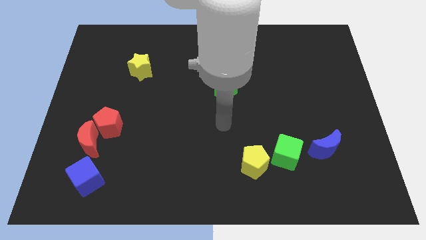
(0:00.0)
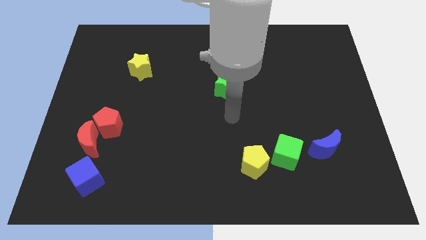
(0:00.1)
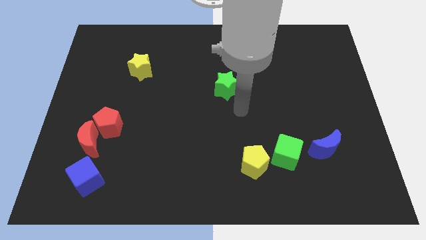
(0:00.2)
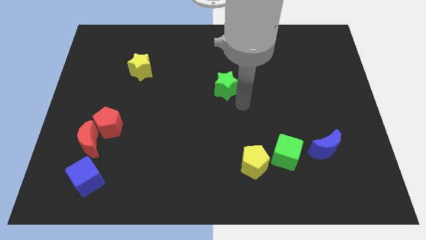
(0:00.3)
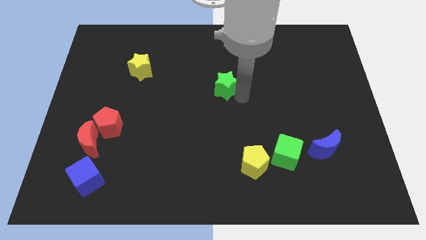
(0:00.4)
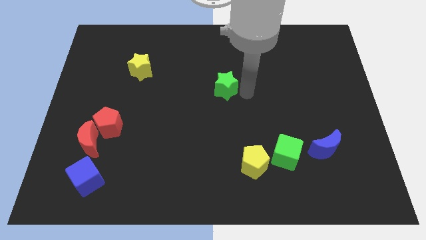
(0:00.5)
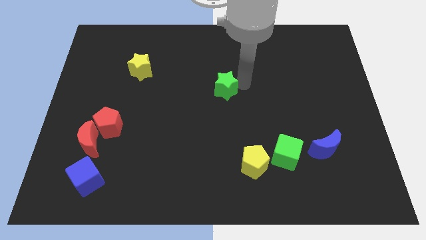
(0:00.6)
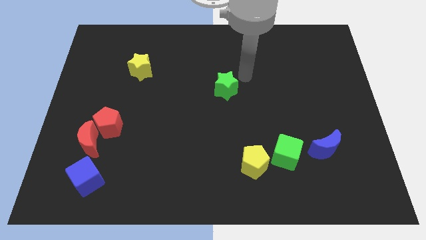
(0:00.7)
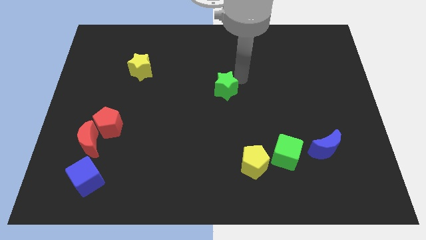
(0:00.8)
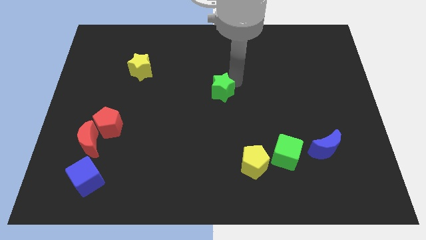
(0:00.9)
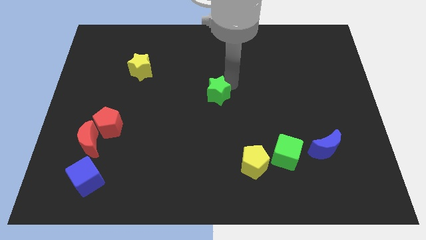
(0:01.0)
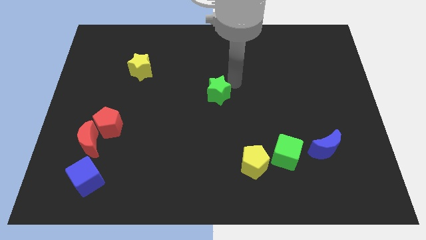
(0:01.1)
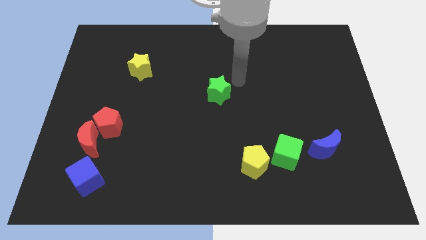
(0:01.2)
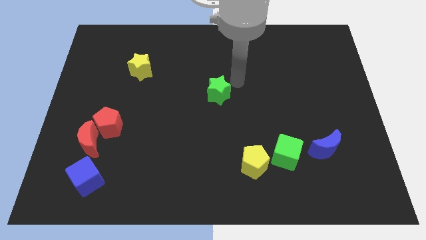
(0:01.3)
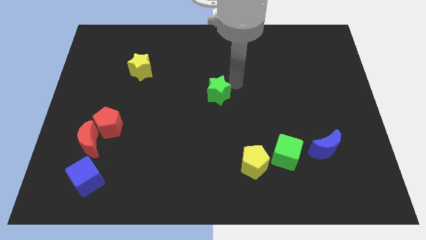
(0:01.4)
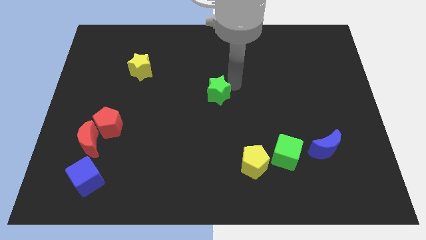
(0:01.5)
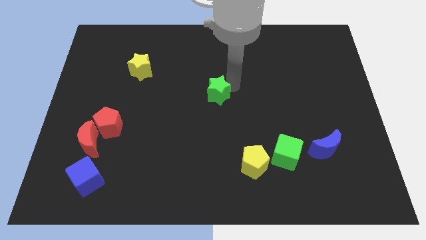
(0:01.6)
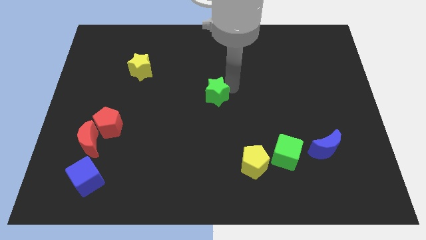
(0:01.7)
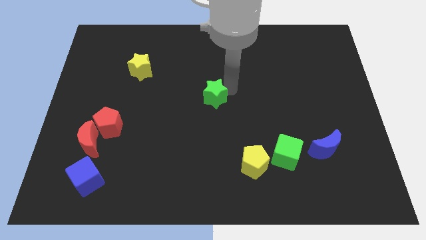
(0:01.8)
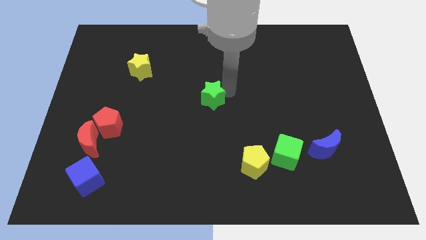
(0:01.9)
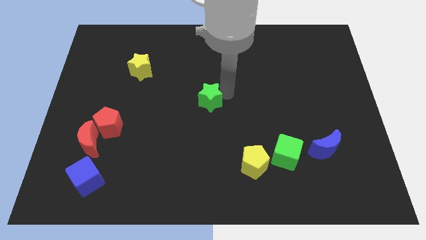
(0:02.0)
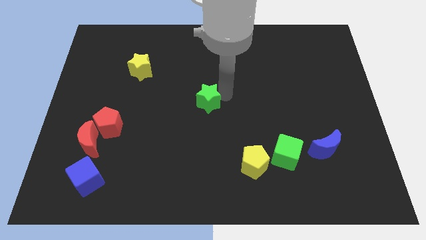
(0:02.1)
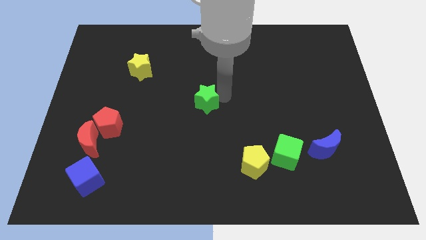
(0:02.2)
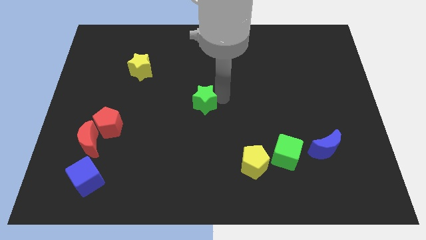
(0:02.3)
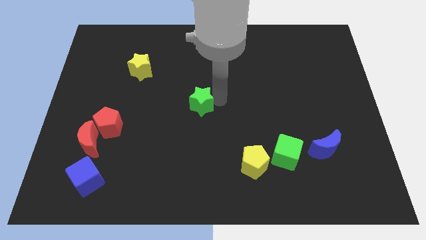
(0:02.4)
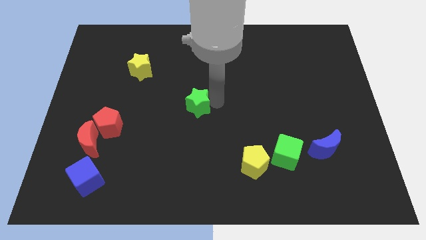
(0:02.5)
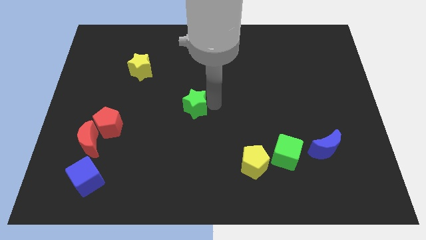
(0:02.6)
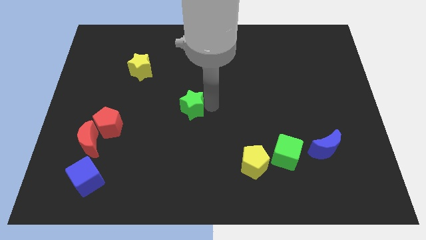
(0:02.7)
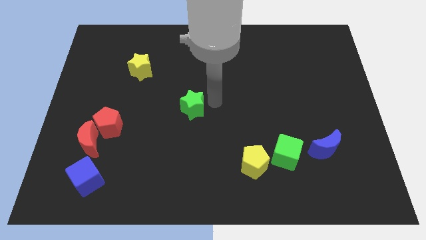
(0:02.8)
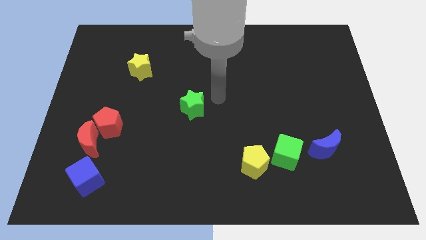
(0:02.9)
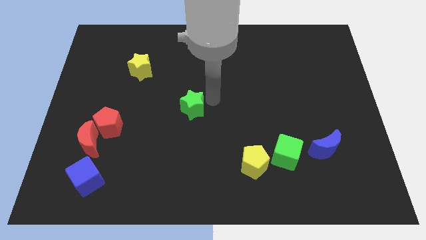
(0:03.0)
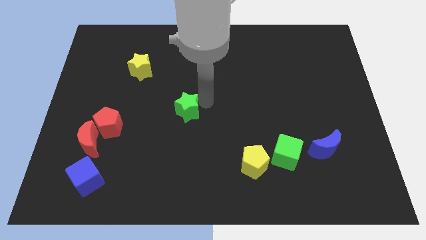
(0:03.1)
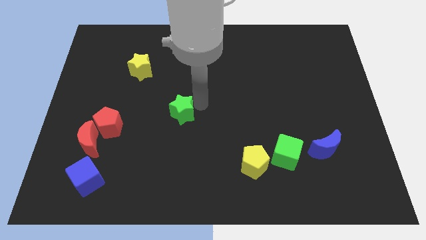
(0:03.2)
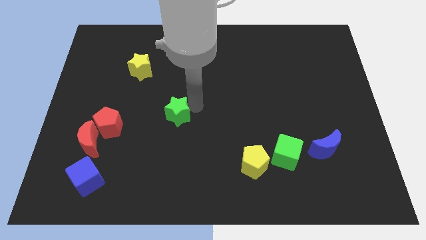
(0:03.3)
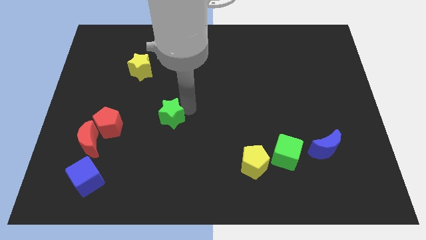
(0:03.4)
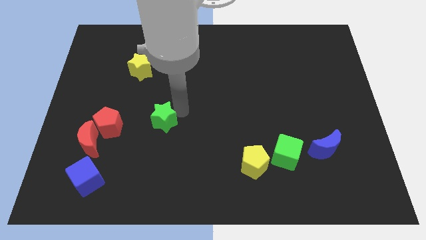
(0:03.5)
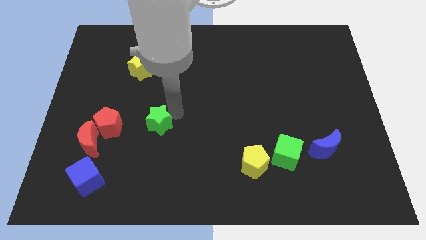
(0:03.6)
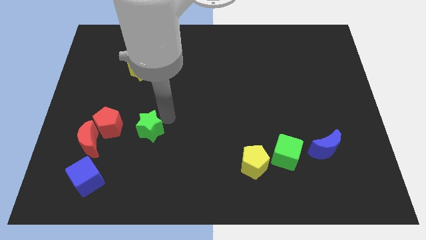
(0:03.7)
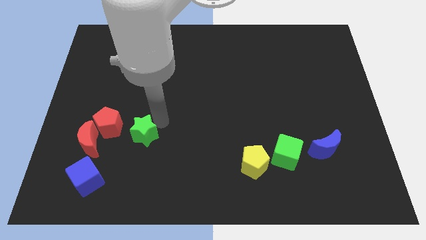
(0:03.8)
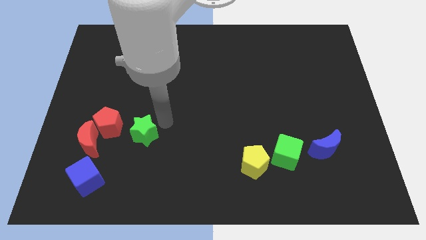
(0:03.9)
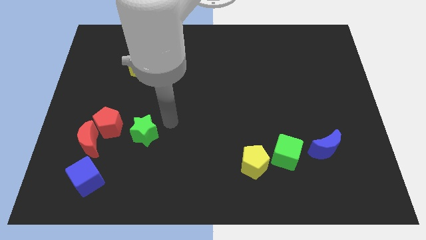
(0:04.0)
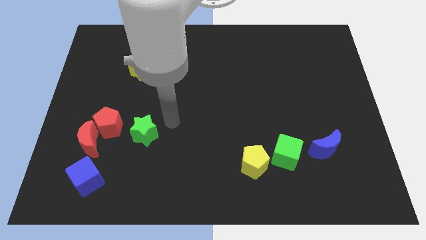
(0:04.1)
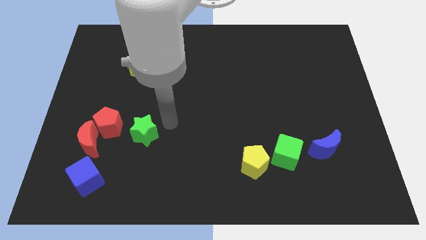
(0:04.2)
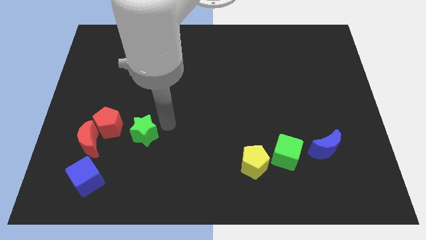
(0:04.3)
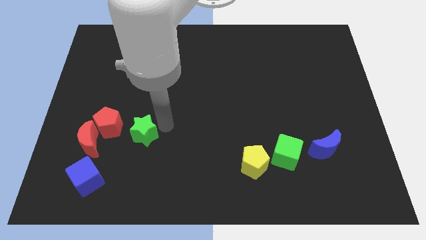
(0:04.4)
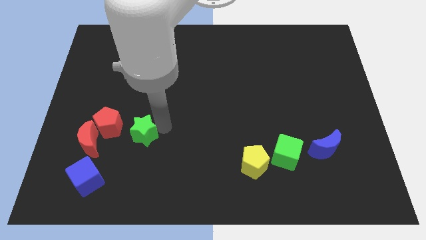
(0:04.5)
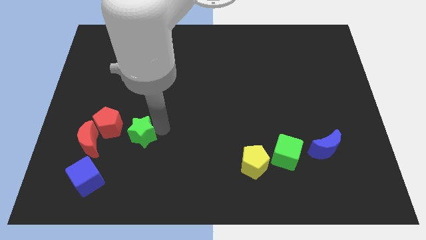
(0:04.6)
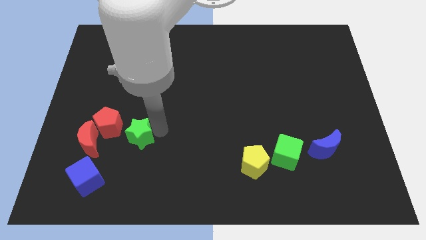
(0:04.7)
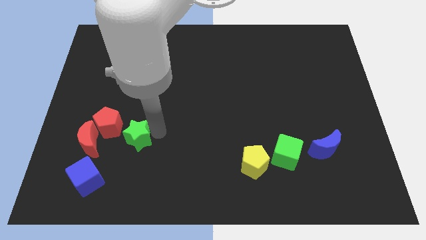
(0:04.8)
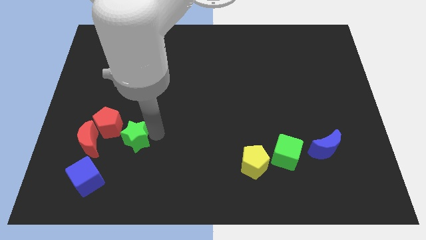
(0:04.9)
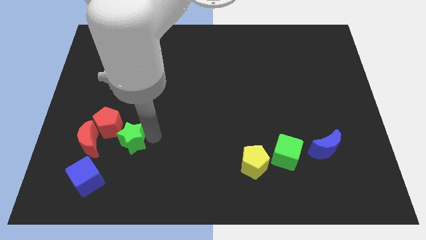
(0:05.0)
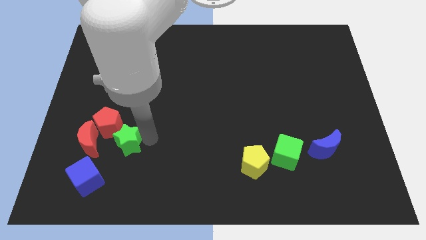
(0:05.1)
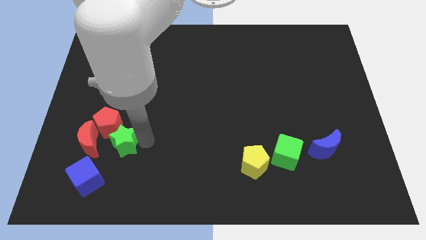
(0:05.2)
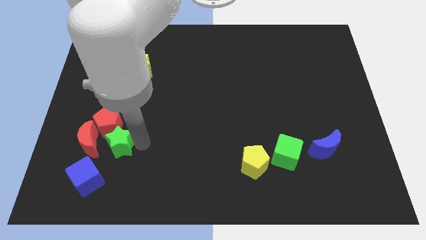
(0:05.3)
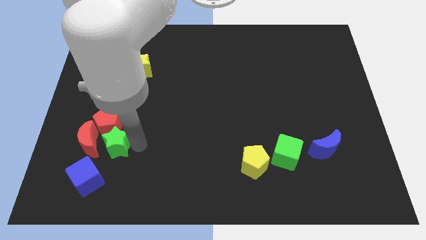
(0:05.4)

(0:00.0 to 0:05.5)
put the green star to the red moon

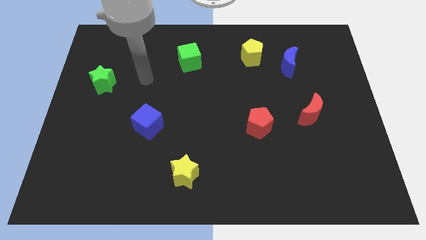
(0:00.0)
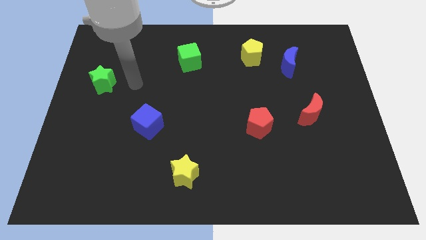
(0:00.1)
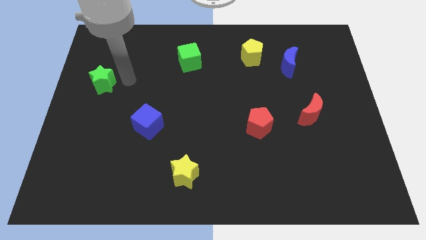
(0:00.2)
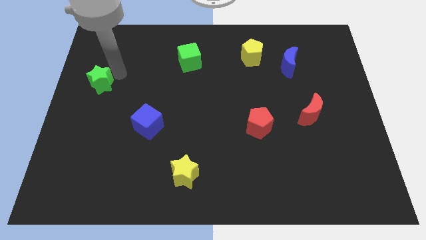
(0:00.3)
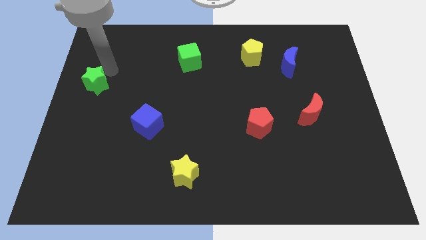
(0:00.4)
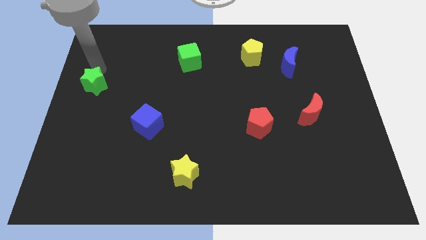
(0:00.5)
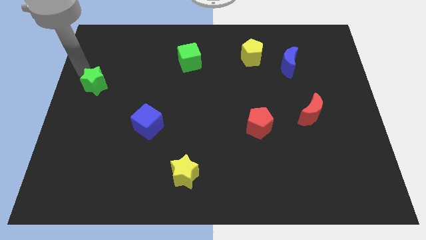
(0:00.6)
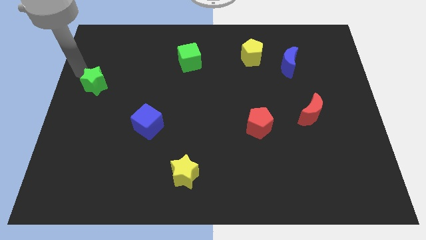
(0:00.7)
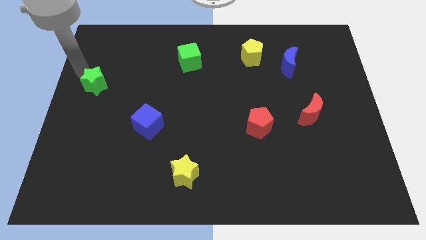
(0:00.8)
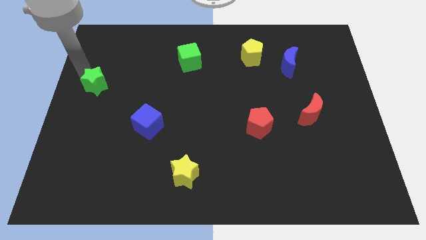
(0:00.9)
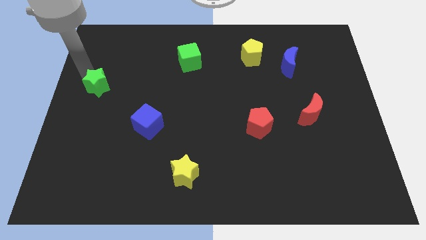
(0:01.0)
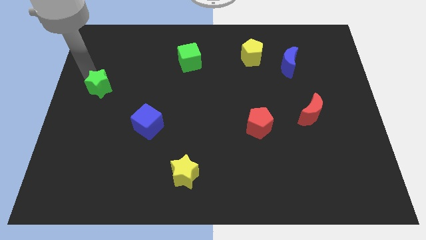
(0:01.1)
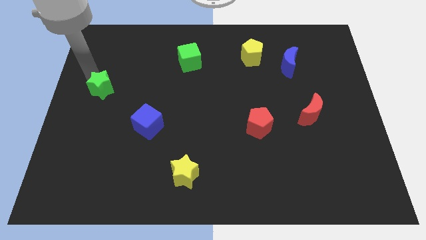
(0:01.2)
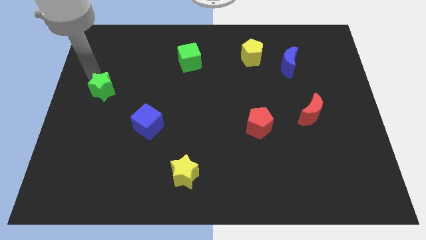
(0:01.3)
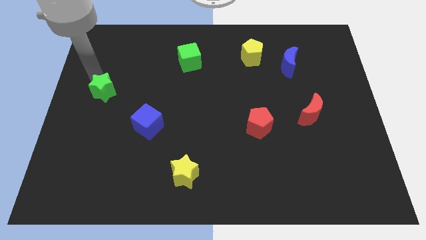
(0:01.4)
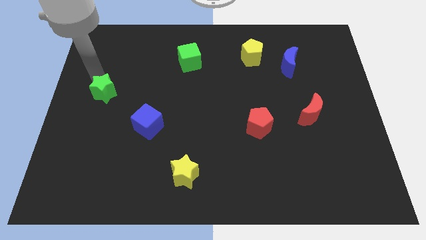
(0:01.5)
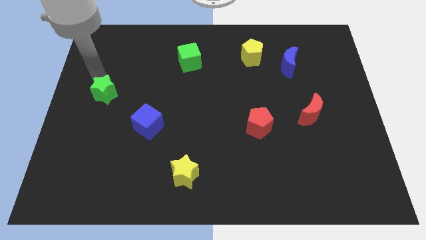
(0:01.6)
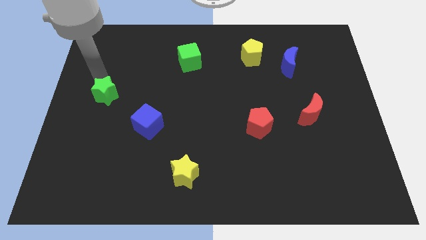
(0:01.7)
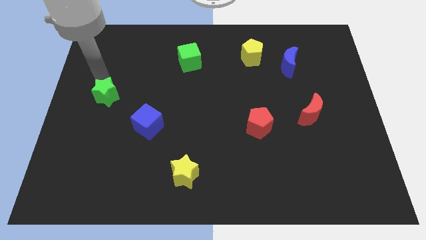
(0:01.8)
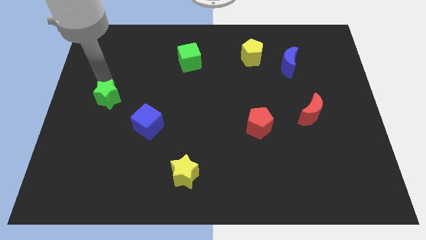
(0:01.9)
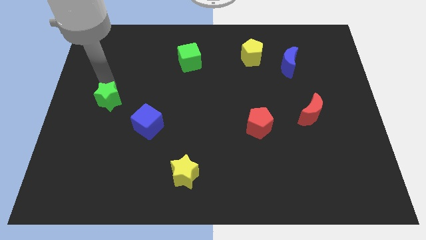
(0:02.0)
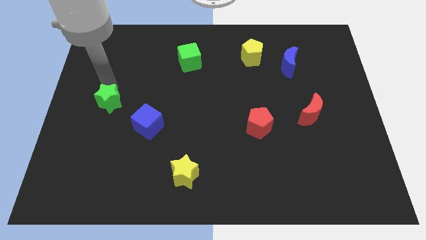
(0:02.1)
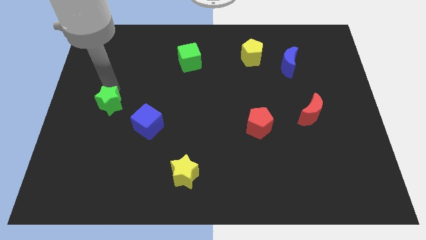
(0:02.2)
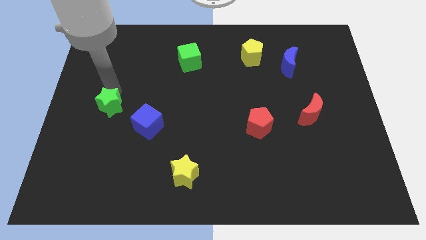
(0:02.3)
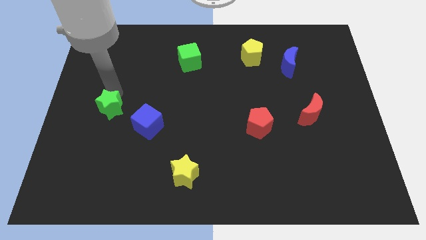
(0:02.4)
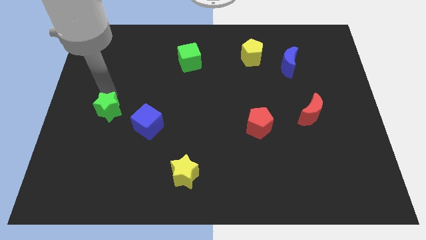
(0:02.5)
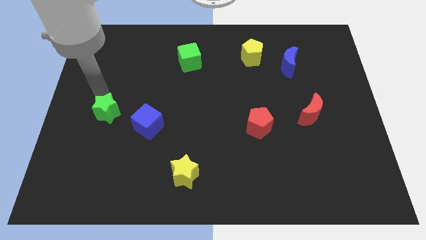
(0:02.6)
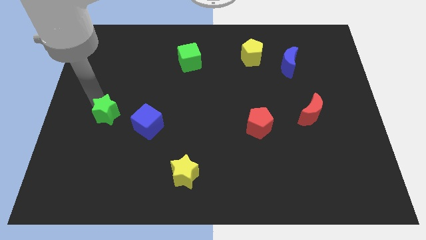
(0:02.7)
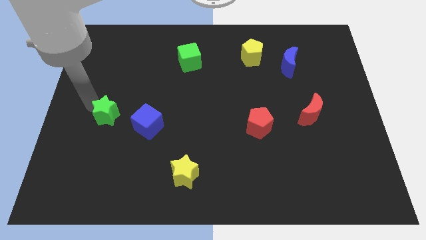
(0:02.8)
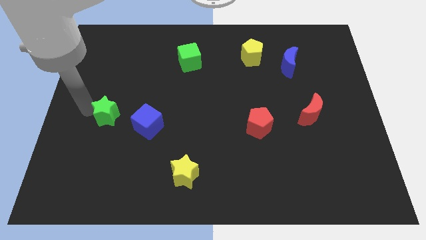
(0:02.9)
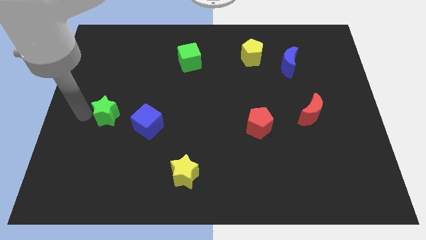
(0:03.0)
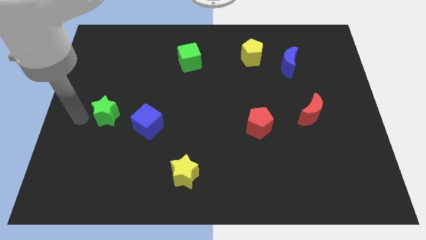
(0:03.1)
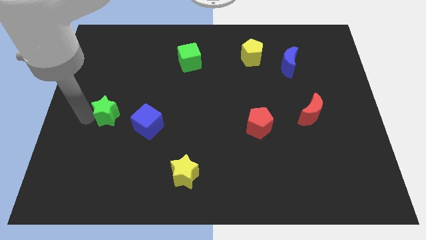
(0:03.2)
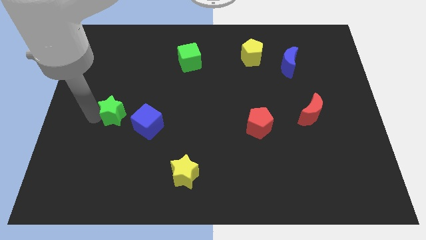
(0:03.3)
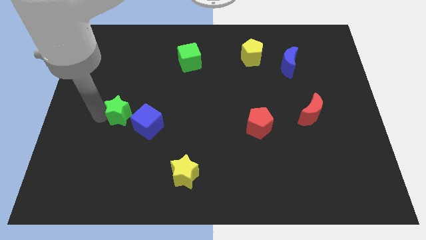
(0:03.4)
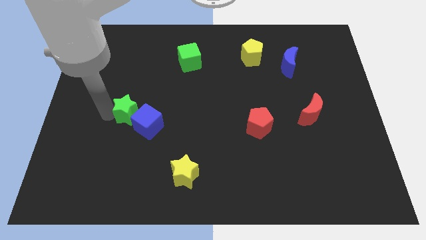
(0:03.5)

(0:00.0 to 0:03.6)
move the green star close to the blue cube
